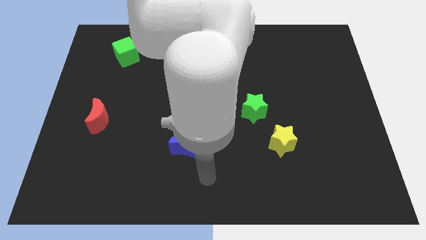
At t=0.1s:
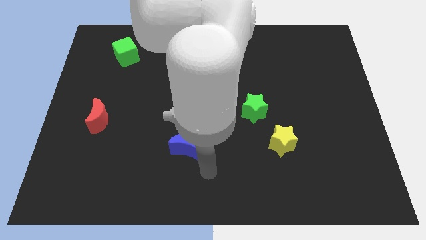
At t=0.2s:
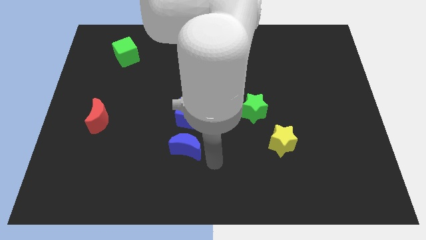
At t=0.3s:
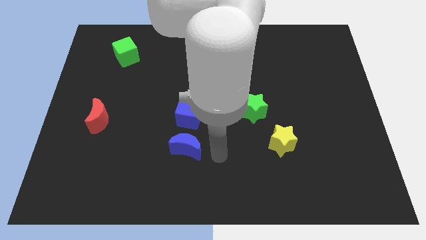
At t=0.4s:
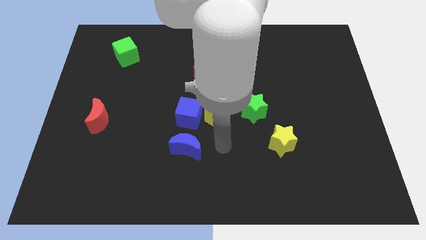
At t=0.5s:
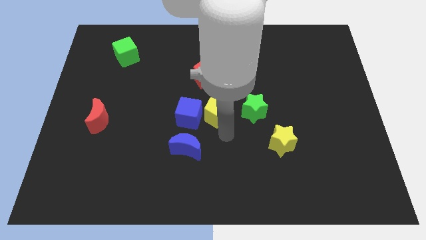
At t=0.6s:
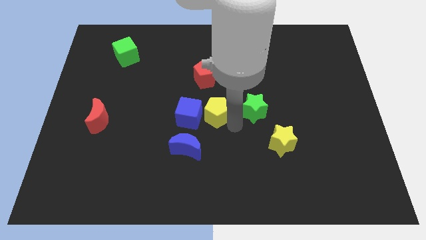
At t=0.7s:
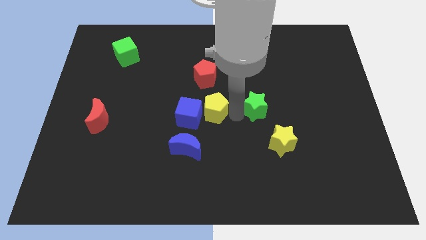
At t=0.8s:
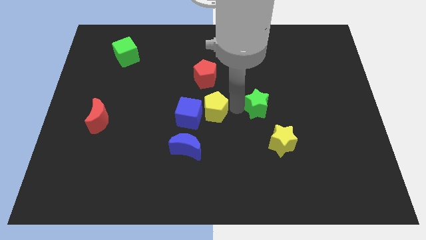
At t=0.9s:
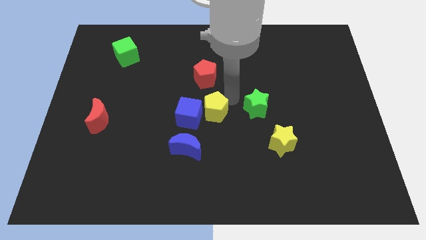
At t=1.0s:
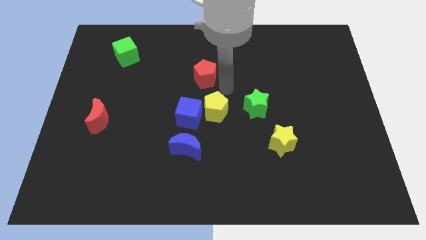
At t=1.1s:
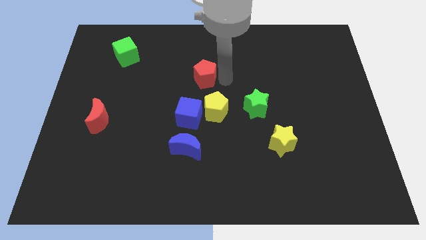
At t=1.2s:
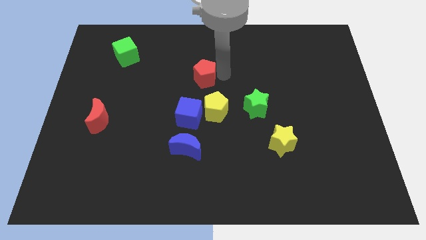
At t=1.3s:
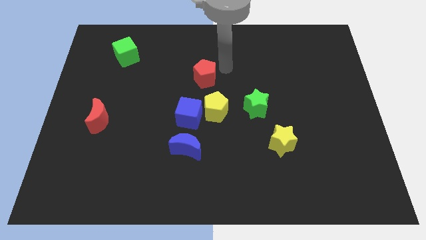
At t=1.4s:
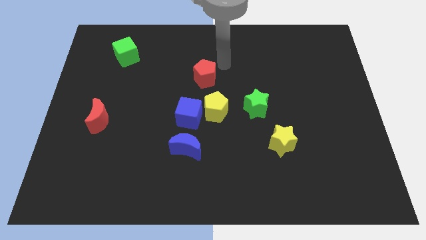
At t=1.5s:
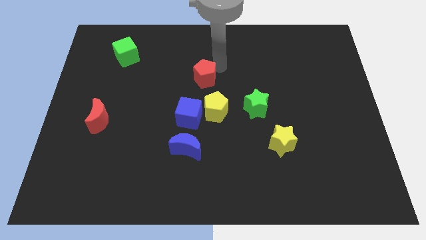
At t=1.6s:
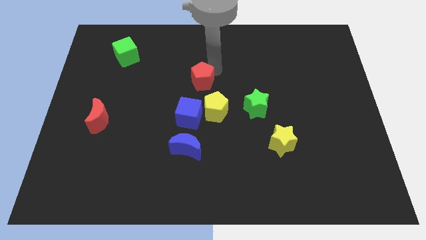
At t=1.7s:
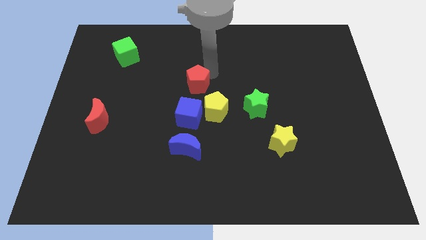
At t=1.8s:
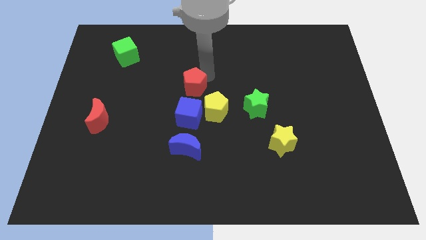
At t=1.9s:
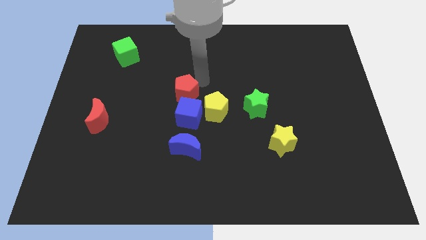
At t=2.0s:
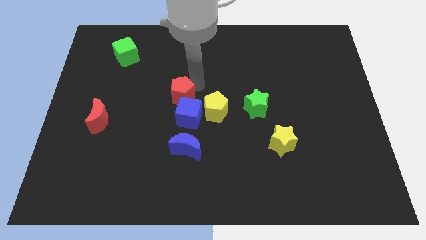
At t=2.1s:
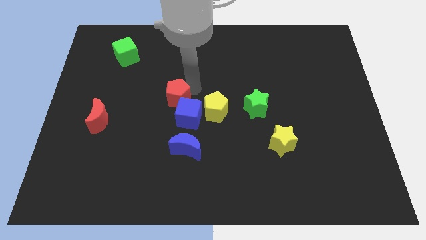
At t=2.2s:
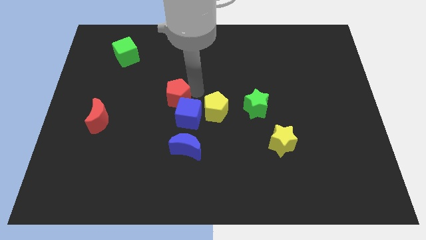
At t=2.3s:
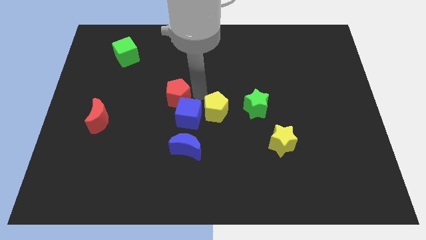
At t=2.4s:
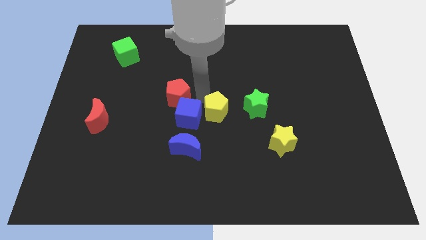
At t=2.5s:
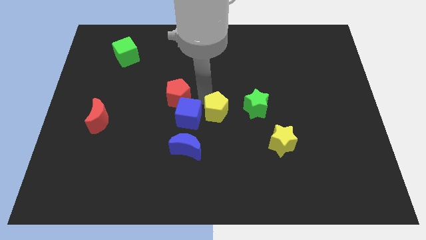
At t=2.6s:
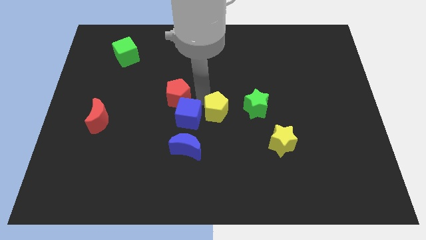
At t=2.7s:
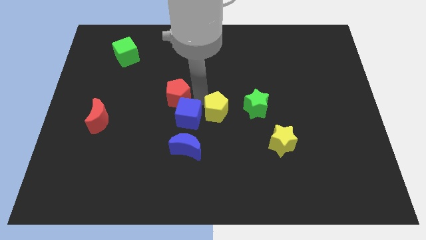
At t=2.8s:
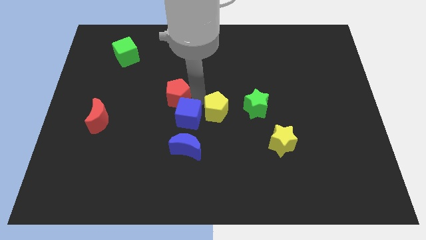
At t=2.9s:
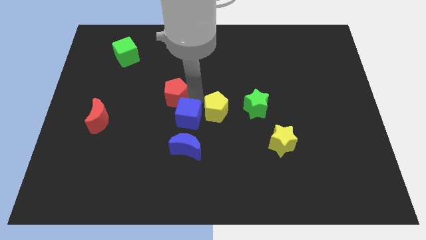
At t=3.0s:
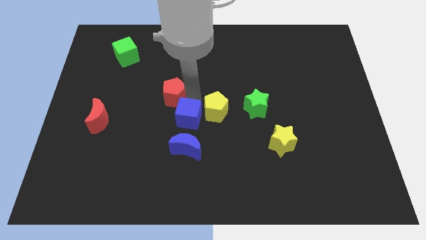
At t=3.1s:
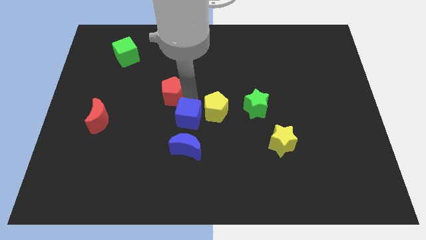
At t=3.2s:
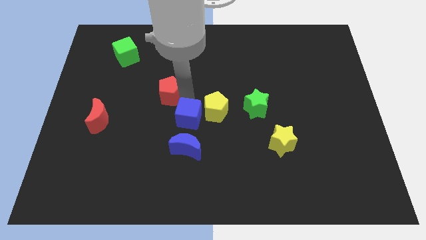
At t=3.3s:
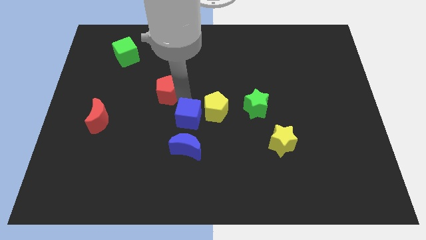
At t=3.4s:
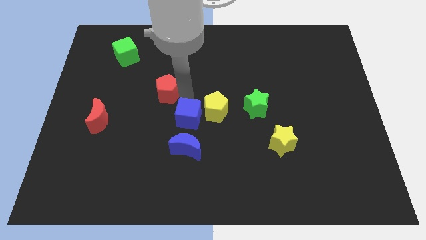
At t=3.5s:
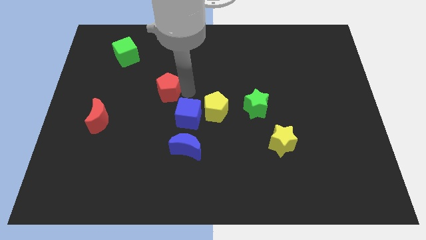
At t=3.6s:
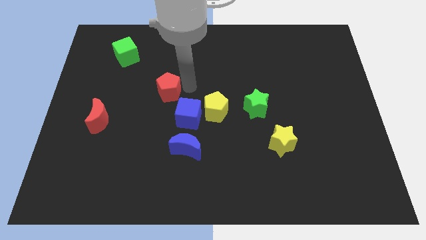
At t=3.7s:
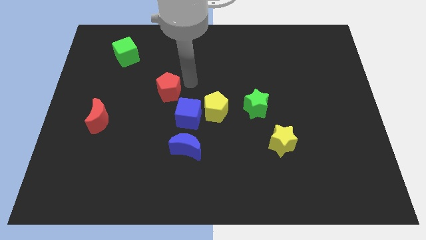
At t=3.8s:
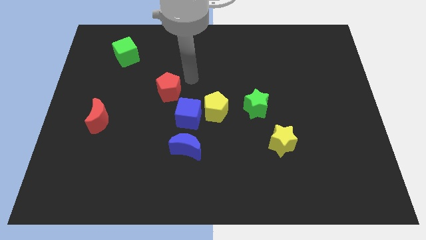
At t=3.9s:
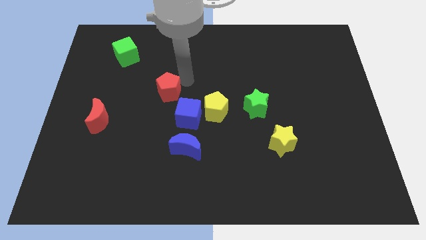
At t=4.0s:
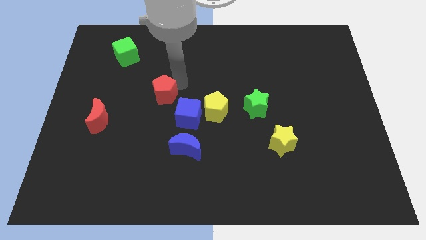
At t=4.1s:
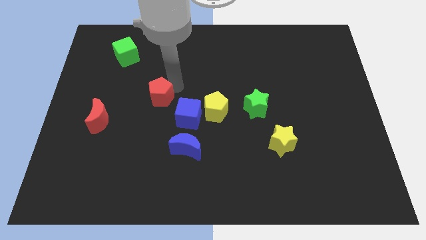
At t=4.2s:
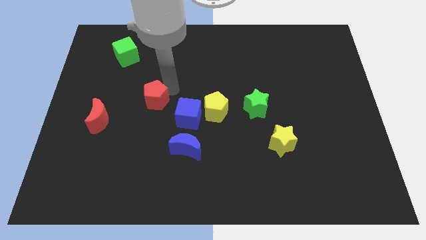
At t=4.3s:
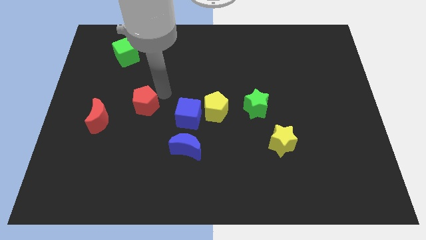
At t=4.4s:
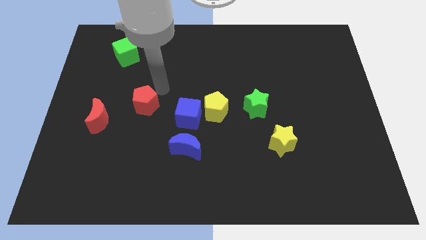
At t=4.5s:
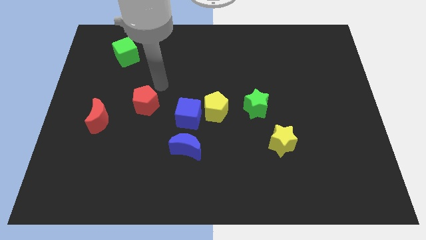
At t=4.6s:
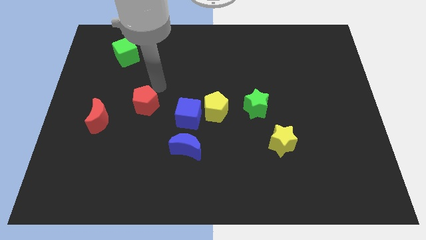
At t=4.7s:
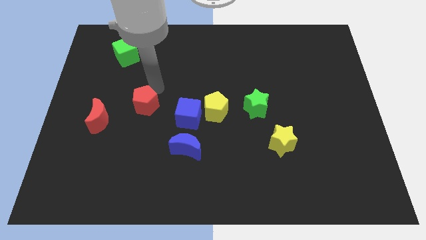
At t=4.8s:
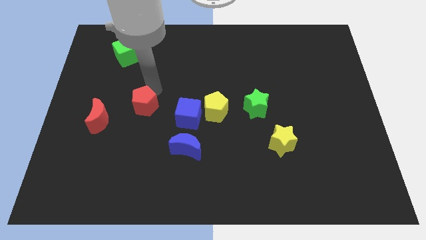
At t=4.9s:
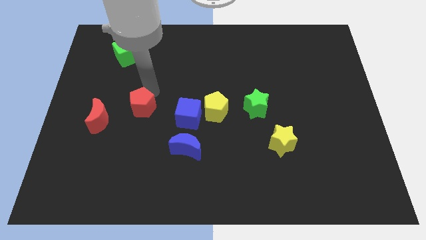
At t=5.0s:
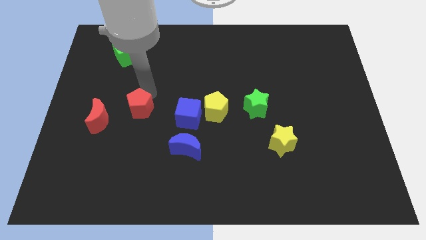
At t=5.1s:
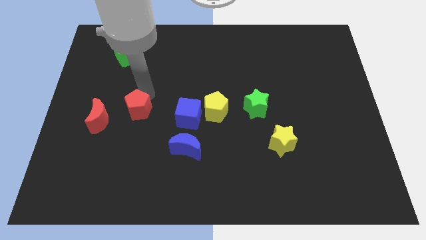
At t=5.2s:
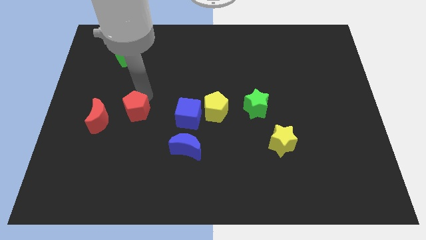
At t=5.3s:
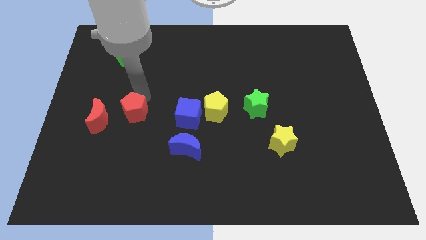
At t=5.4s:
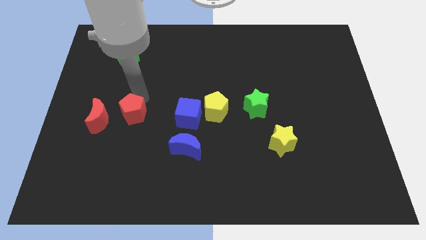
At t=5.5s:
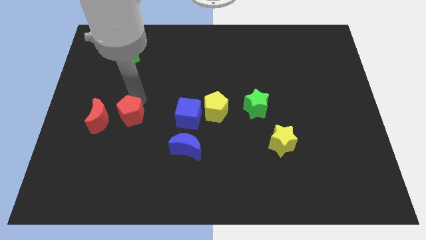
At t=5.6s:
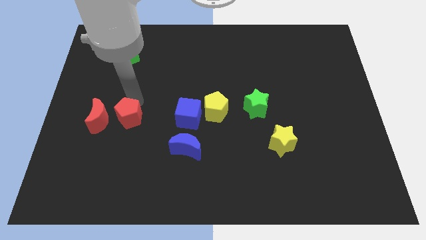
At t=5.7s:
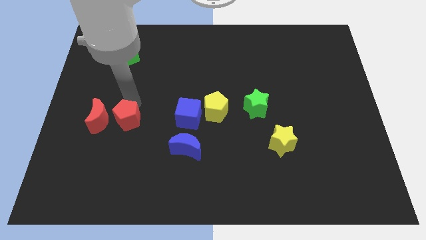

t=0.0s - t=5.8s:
push the red pentagon diagonally down and to the right of the red moon

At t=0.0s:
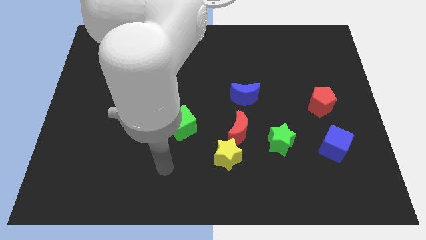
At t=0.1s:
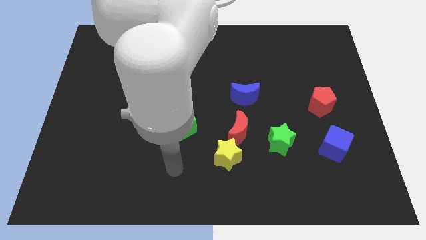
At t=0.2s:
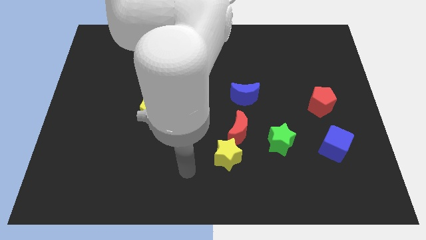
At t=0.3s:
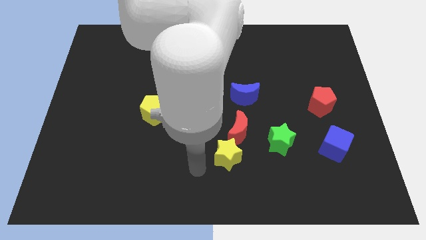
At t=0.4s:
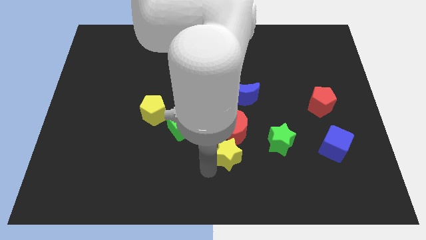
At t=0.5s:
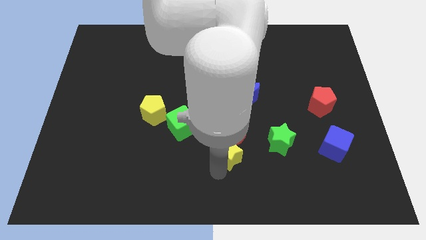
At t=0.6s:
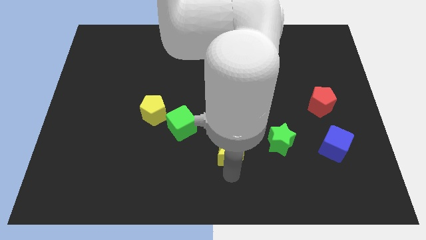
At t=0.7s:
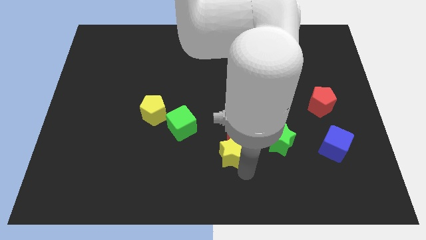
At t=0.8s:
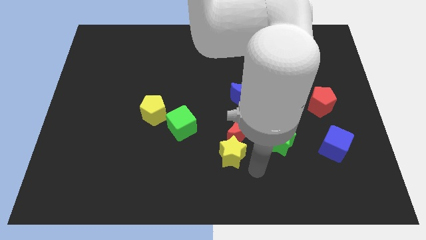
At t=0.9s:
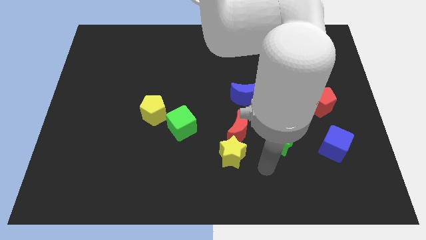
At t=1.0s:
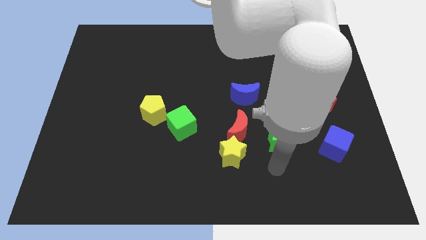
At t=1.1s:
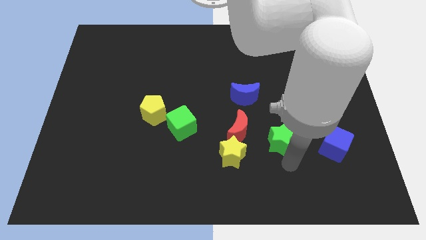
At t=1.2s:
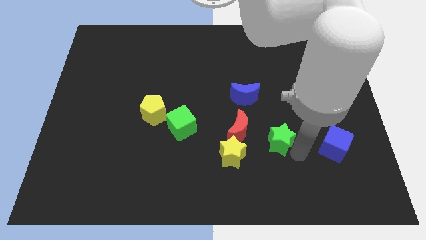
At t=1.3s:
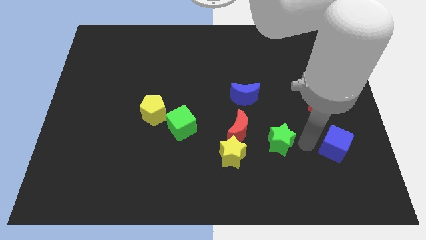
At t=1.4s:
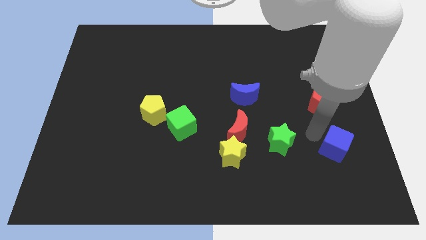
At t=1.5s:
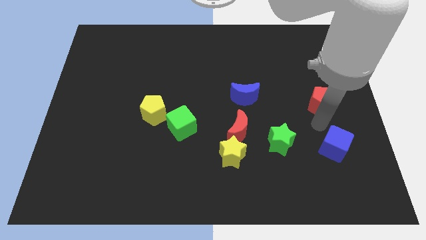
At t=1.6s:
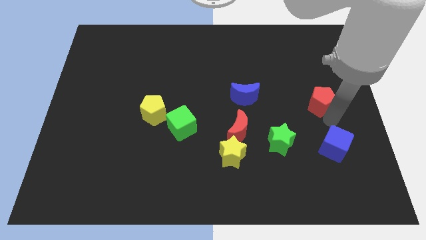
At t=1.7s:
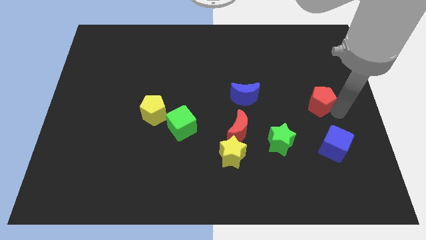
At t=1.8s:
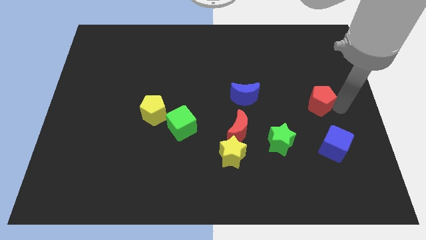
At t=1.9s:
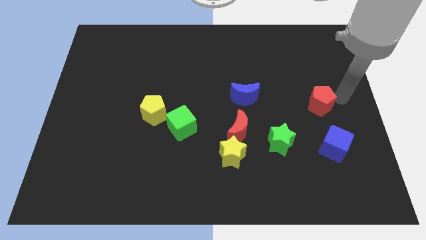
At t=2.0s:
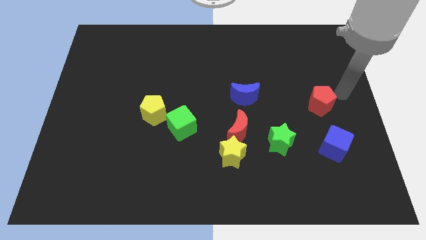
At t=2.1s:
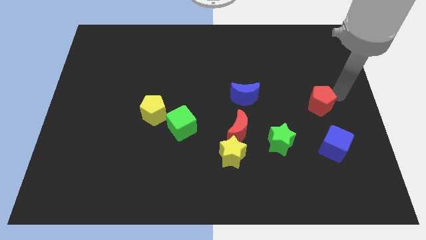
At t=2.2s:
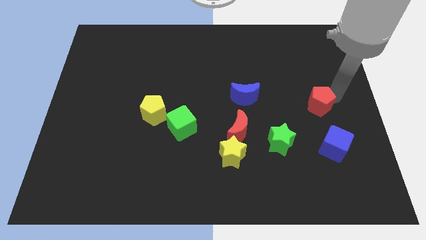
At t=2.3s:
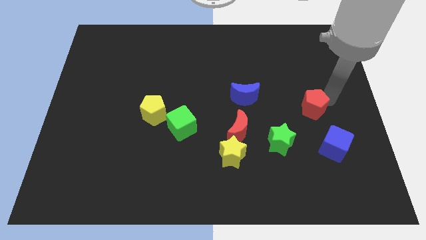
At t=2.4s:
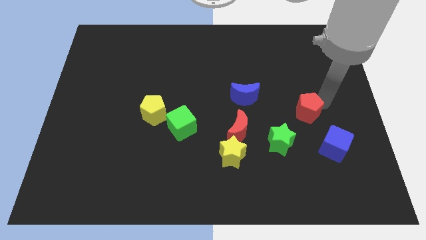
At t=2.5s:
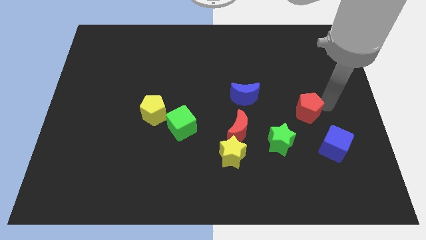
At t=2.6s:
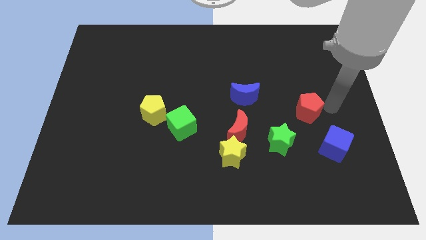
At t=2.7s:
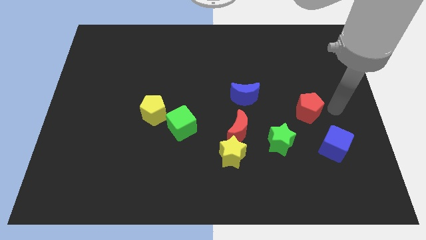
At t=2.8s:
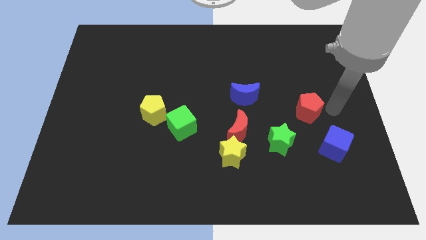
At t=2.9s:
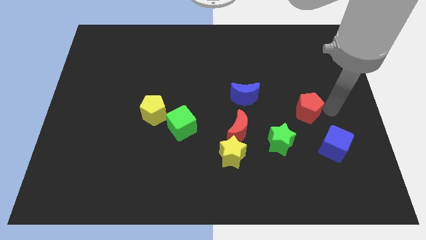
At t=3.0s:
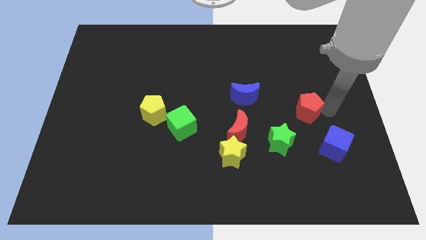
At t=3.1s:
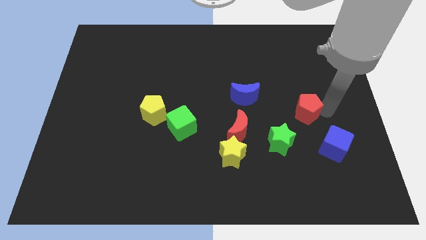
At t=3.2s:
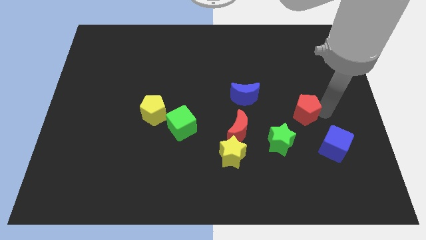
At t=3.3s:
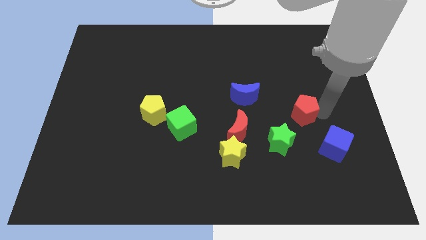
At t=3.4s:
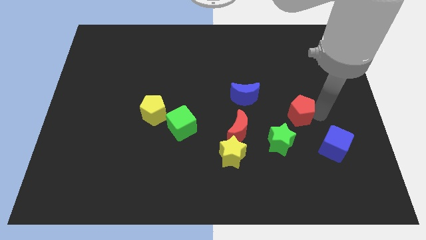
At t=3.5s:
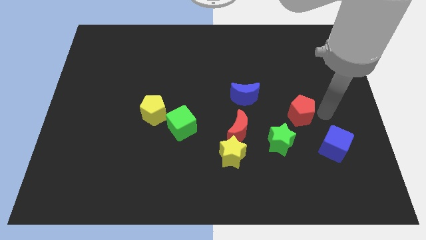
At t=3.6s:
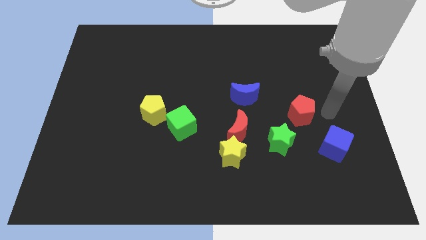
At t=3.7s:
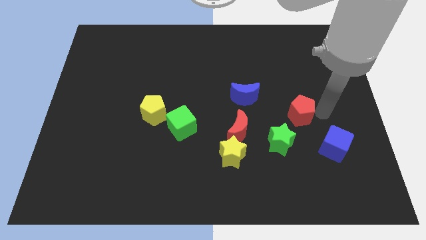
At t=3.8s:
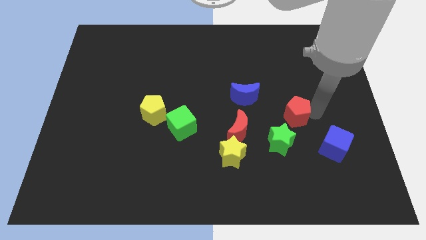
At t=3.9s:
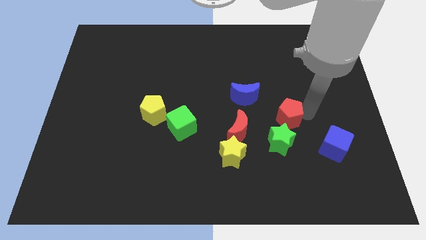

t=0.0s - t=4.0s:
slide the red pentagon to the bottom right side of the blue moon
